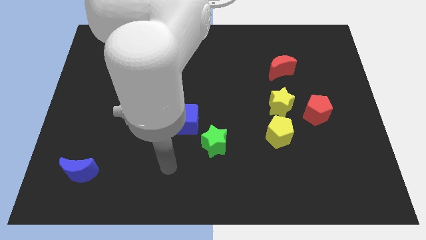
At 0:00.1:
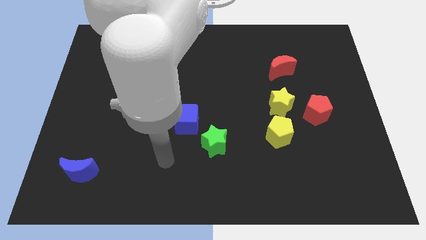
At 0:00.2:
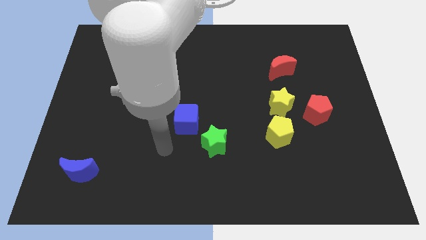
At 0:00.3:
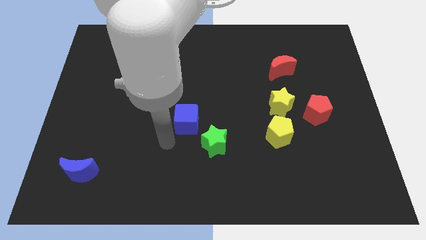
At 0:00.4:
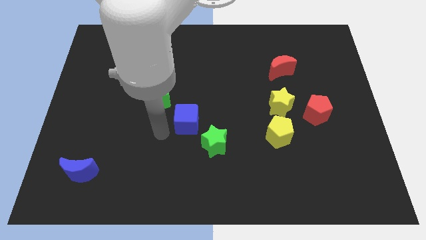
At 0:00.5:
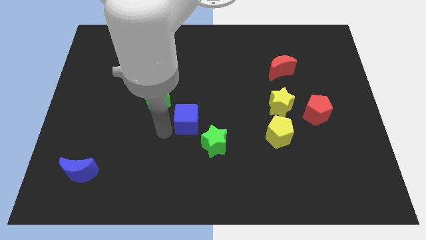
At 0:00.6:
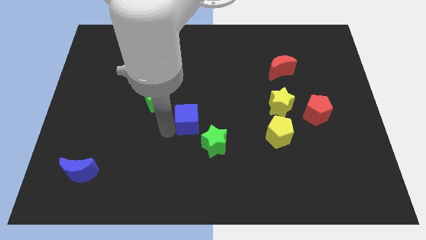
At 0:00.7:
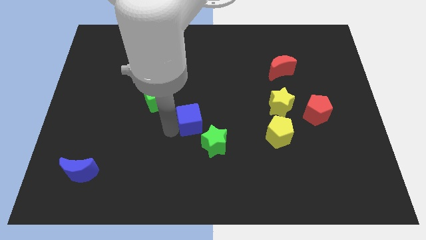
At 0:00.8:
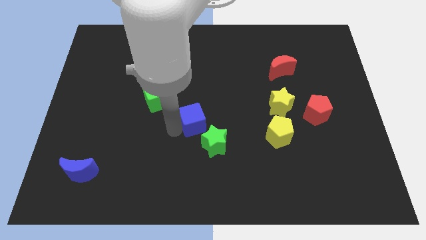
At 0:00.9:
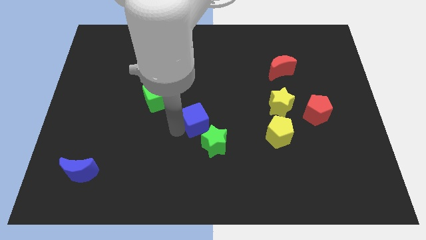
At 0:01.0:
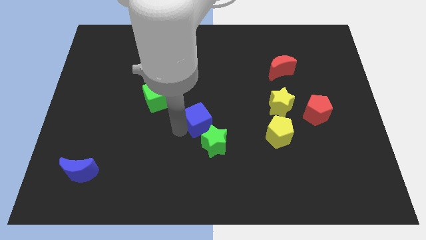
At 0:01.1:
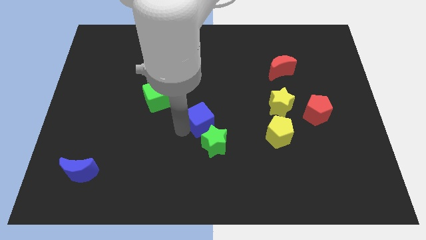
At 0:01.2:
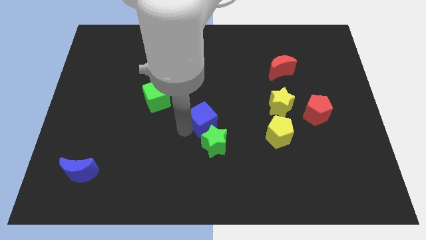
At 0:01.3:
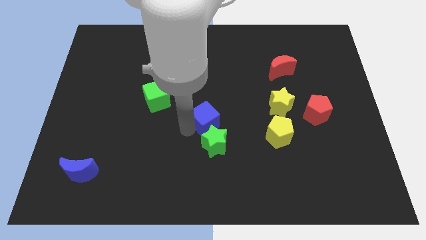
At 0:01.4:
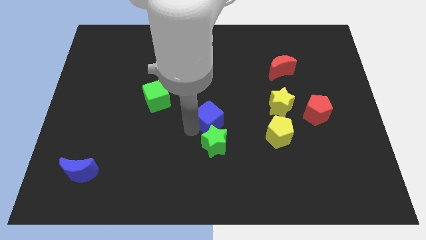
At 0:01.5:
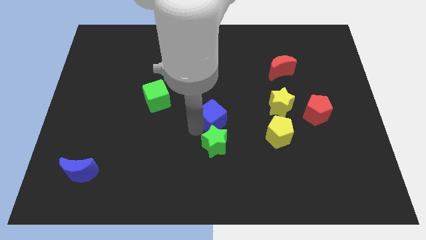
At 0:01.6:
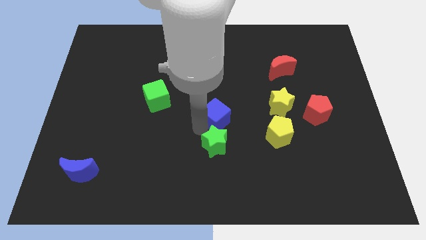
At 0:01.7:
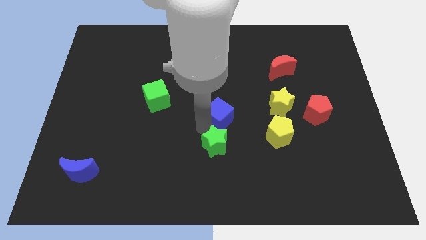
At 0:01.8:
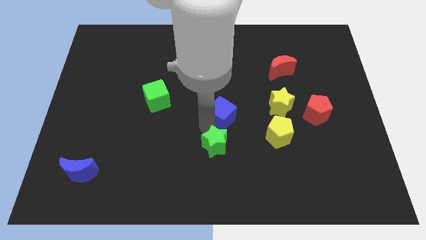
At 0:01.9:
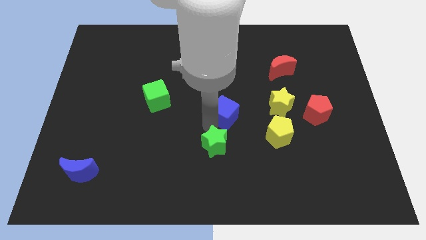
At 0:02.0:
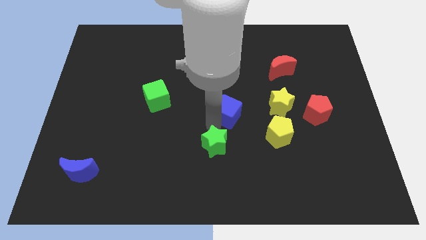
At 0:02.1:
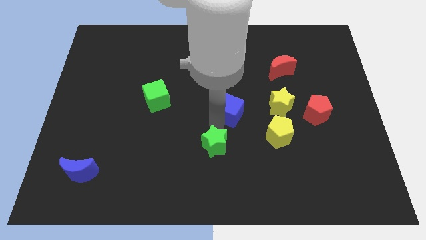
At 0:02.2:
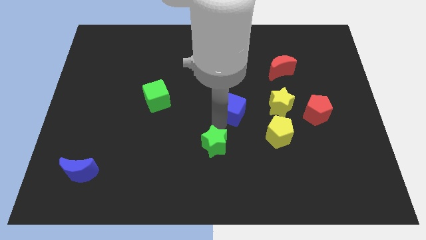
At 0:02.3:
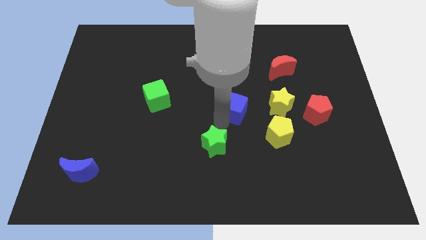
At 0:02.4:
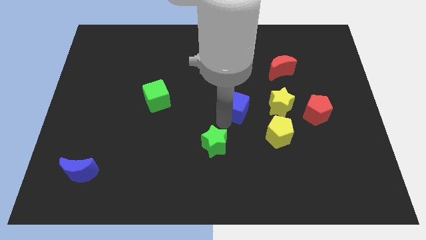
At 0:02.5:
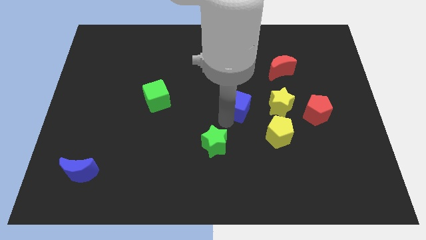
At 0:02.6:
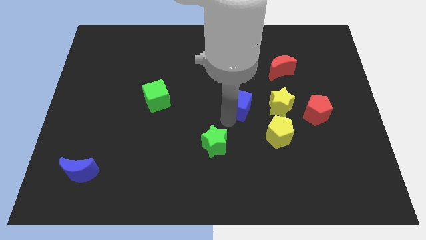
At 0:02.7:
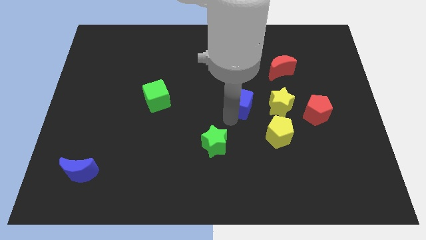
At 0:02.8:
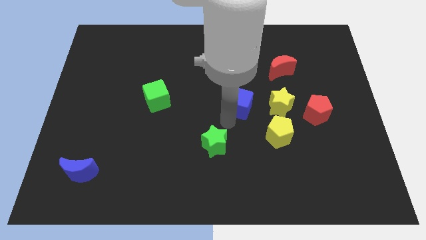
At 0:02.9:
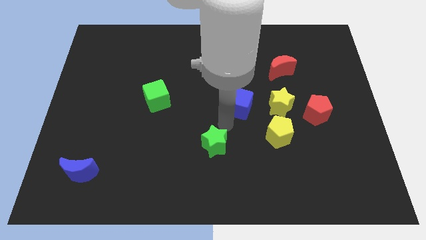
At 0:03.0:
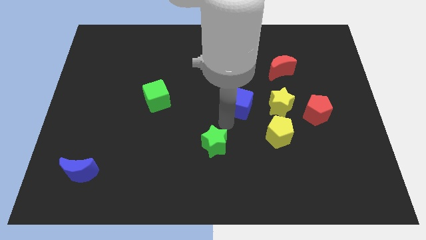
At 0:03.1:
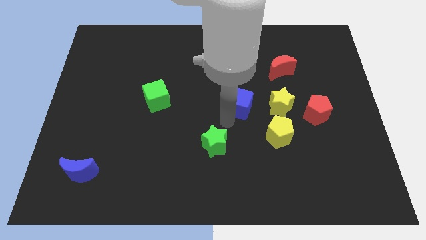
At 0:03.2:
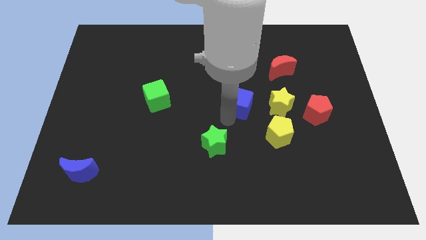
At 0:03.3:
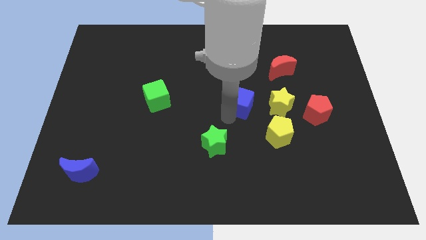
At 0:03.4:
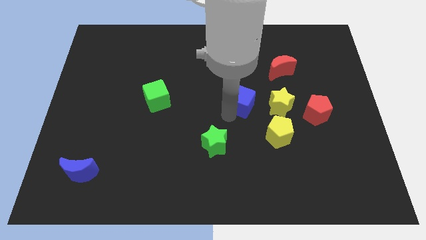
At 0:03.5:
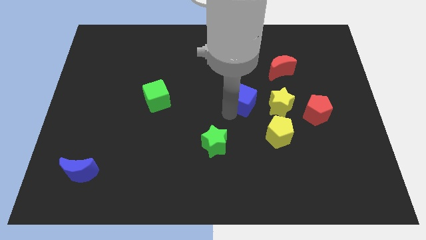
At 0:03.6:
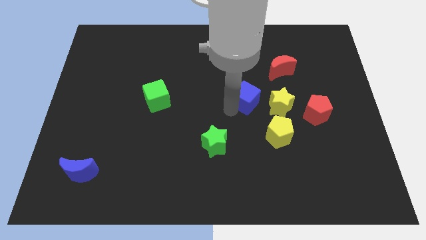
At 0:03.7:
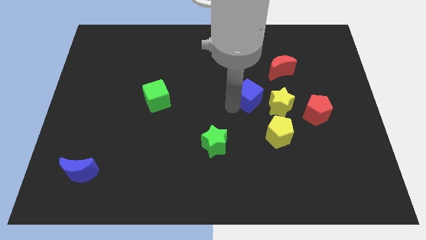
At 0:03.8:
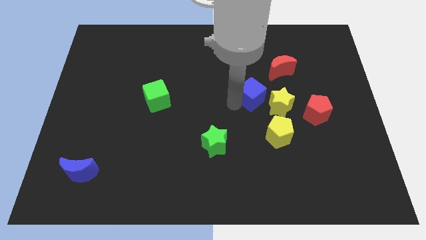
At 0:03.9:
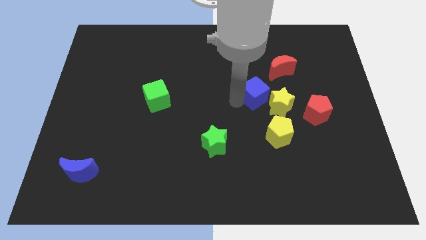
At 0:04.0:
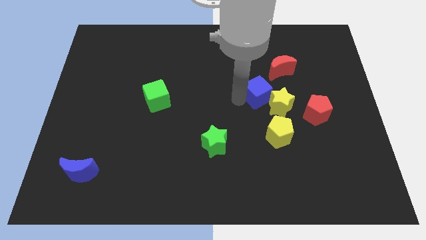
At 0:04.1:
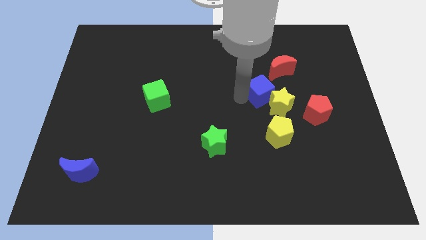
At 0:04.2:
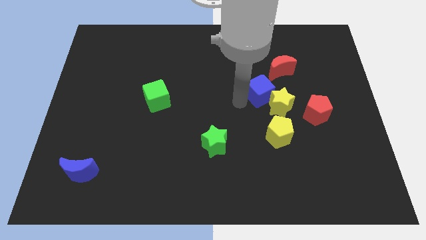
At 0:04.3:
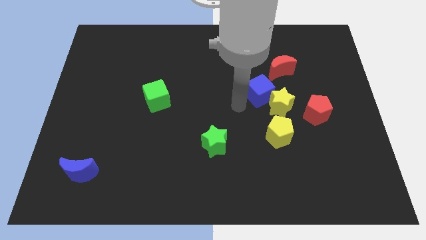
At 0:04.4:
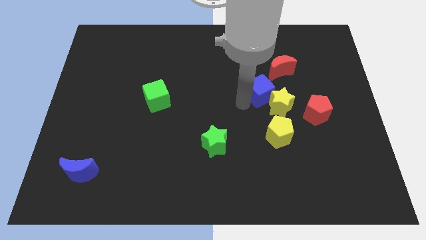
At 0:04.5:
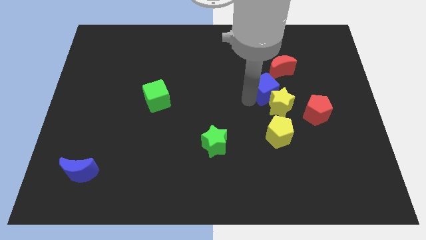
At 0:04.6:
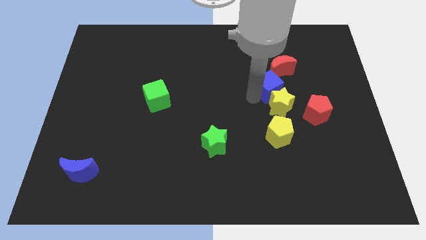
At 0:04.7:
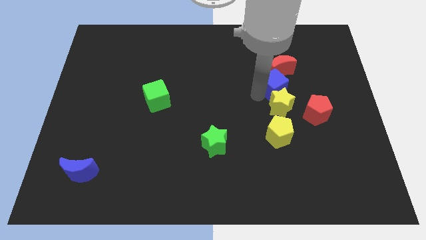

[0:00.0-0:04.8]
move the blue cube diagonally up and to the right of the yellow star

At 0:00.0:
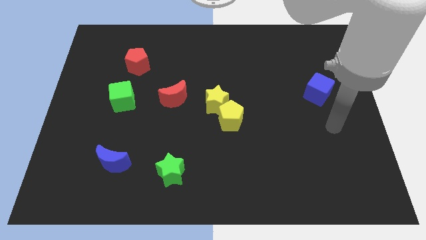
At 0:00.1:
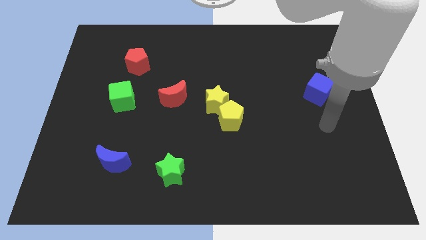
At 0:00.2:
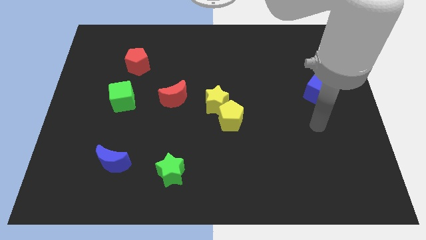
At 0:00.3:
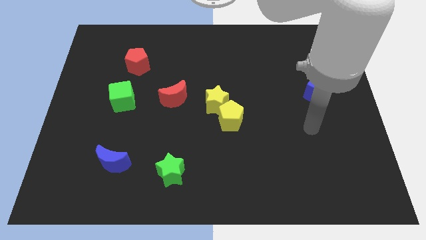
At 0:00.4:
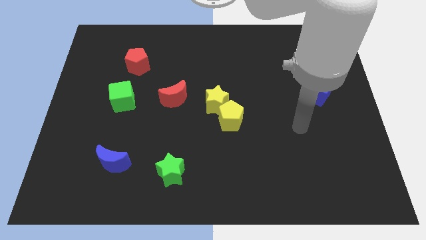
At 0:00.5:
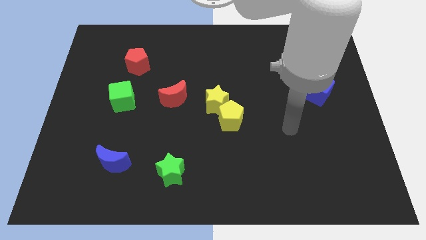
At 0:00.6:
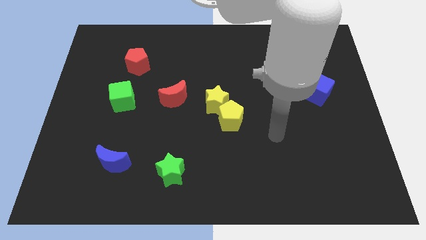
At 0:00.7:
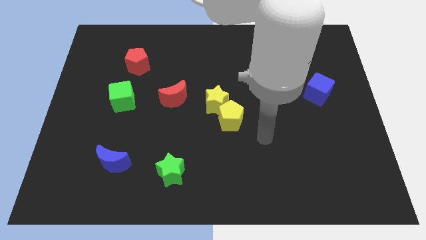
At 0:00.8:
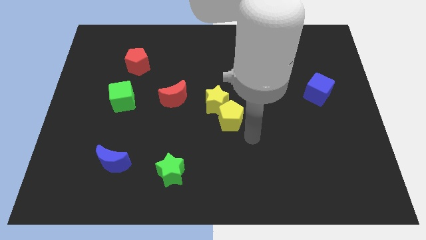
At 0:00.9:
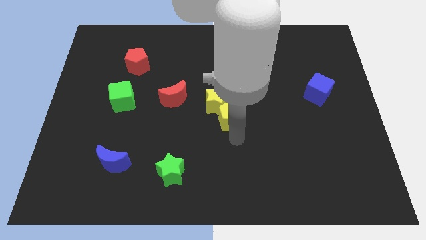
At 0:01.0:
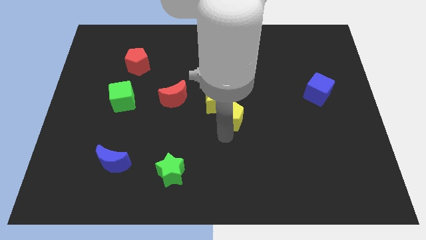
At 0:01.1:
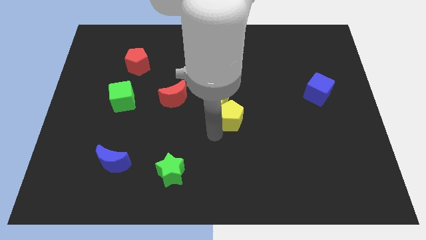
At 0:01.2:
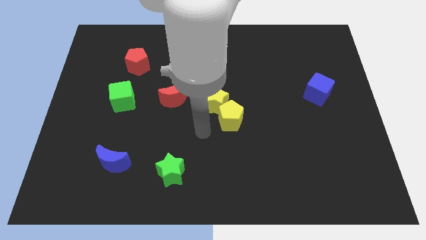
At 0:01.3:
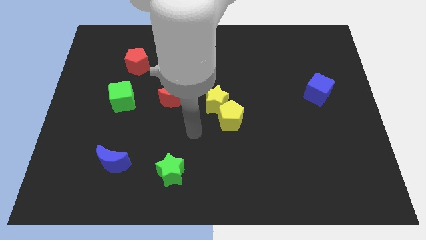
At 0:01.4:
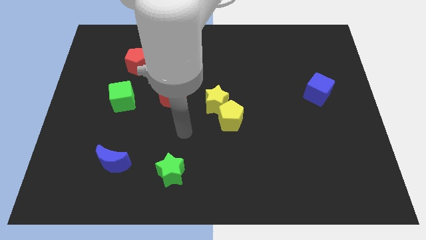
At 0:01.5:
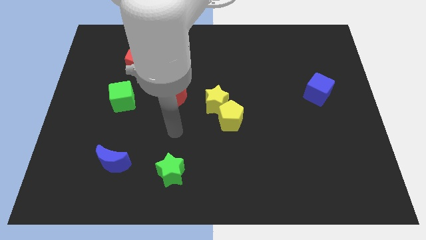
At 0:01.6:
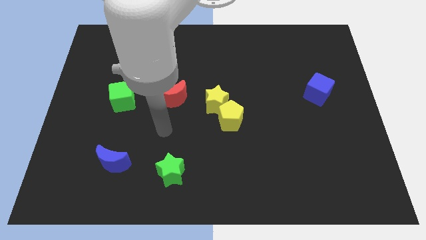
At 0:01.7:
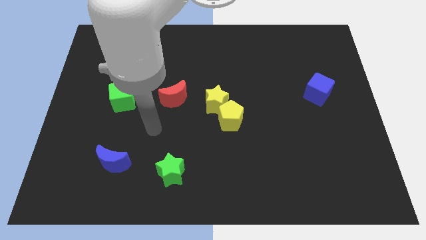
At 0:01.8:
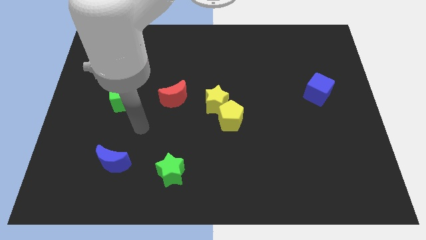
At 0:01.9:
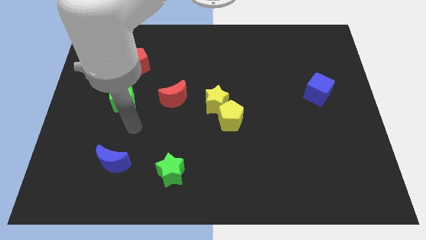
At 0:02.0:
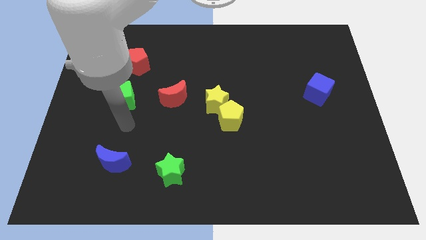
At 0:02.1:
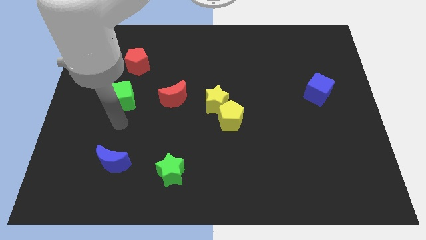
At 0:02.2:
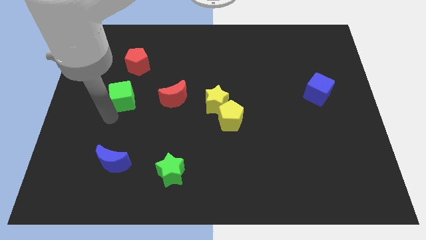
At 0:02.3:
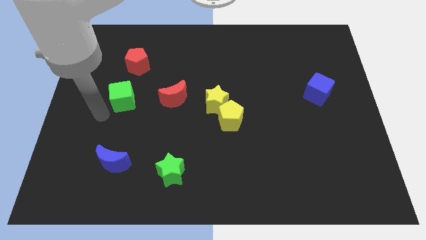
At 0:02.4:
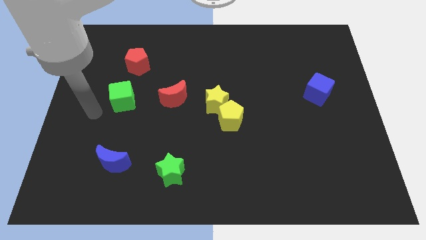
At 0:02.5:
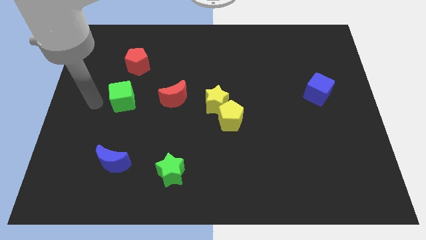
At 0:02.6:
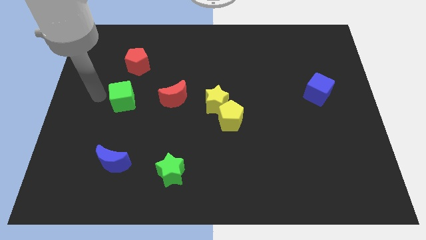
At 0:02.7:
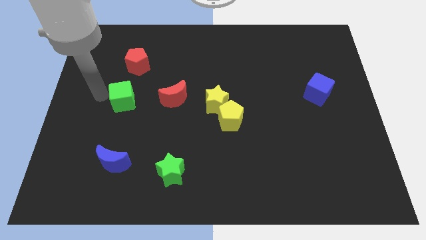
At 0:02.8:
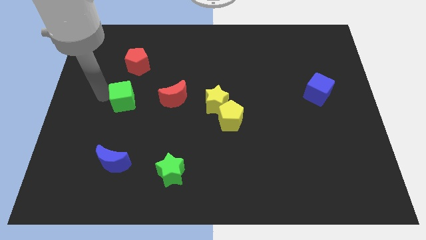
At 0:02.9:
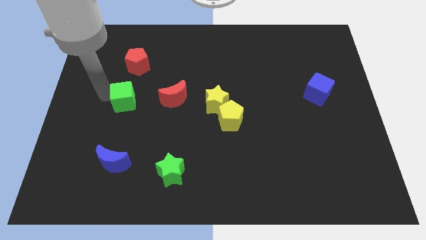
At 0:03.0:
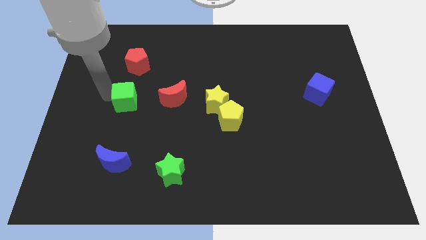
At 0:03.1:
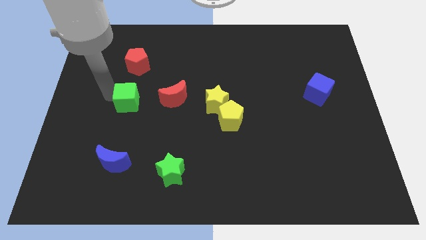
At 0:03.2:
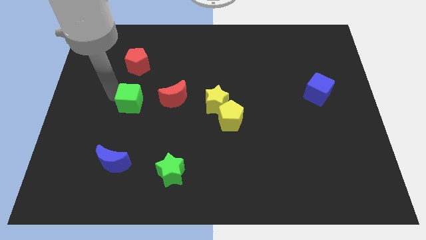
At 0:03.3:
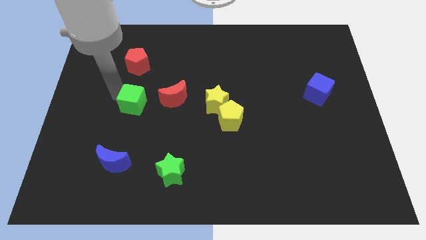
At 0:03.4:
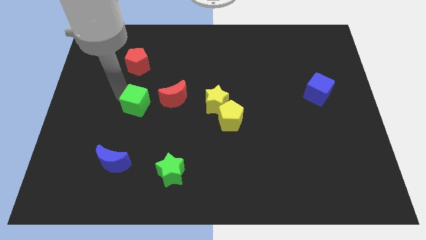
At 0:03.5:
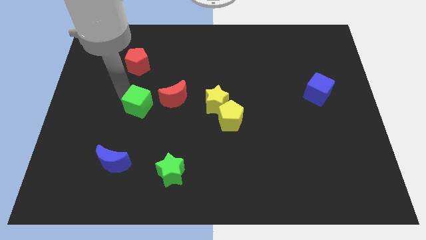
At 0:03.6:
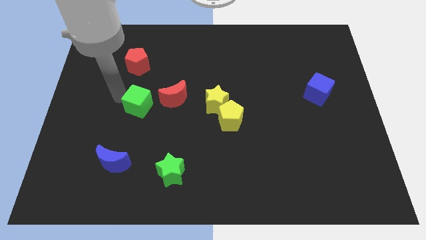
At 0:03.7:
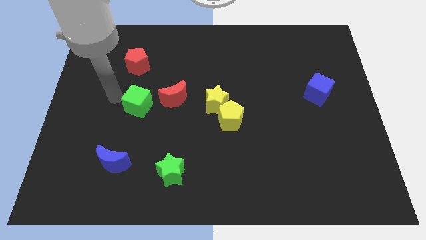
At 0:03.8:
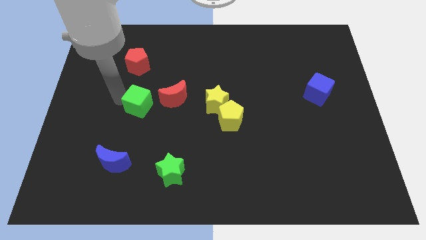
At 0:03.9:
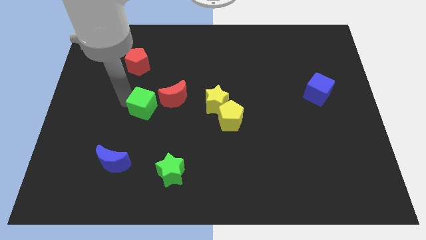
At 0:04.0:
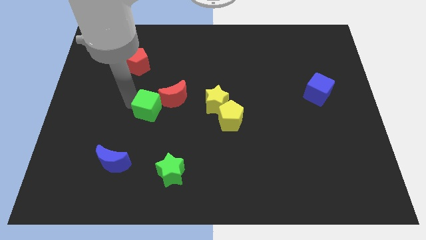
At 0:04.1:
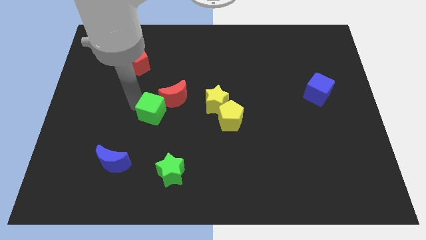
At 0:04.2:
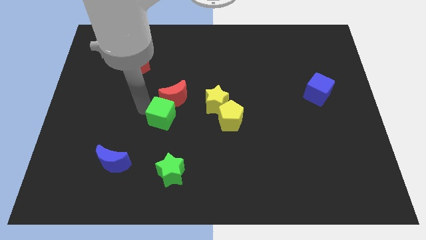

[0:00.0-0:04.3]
put the green cube to the left side of the yellow pentagon
